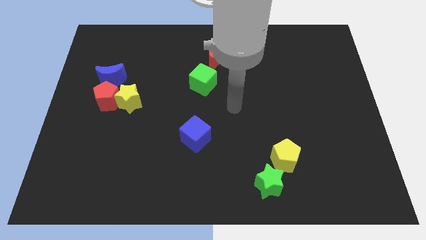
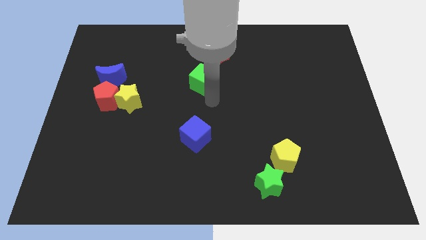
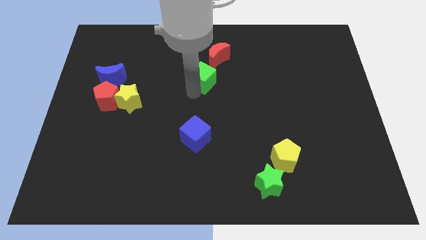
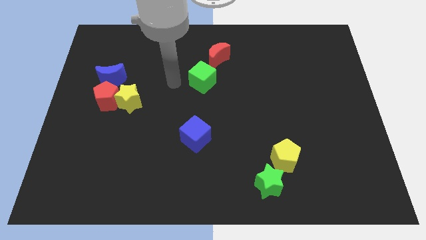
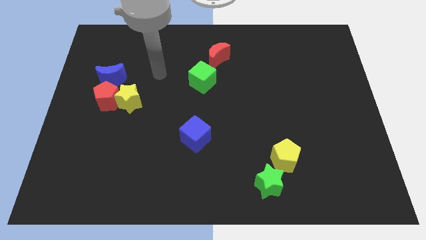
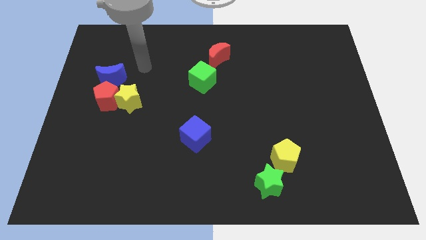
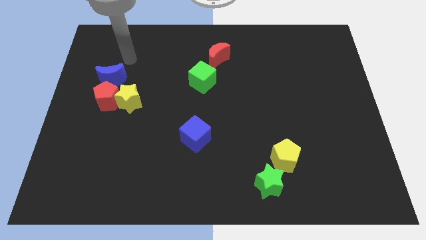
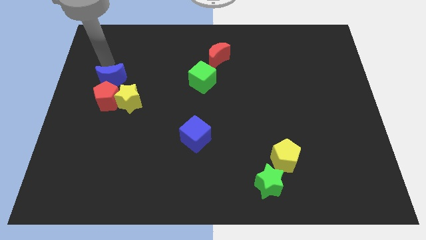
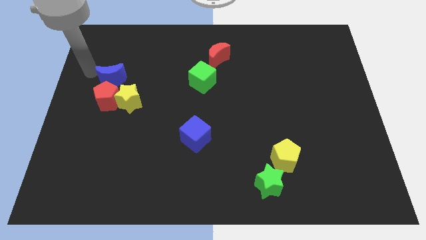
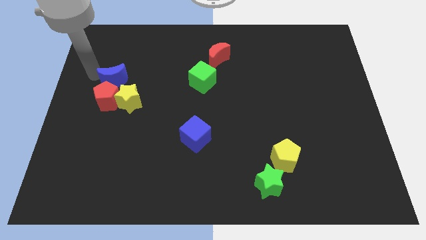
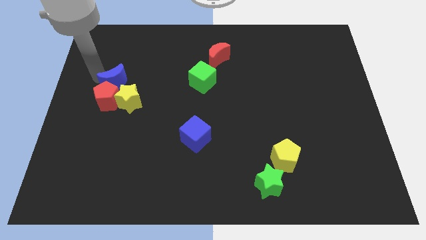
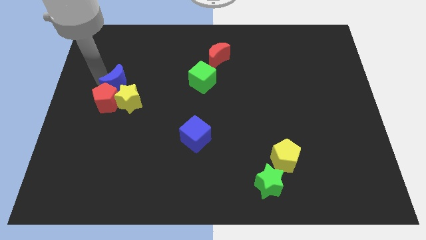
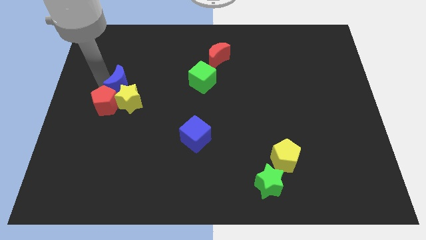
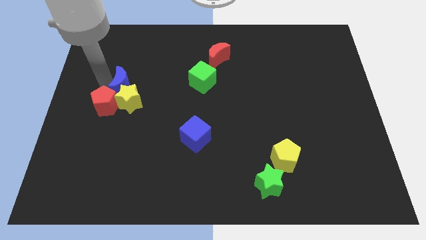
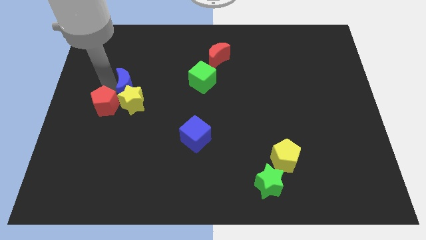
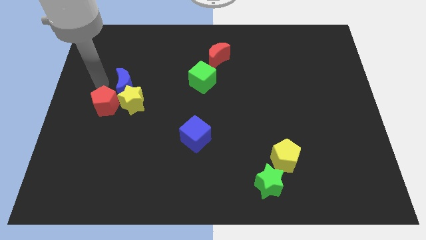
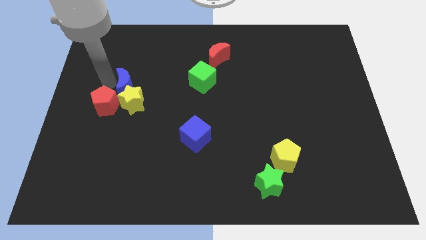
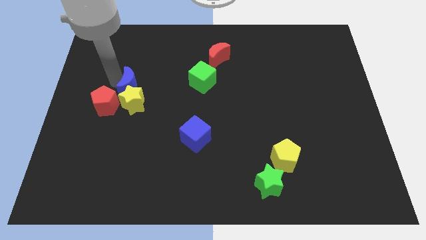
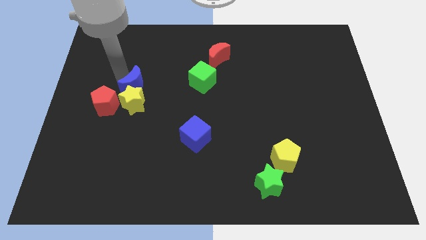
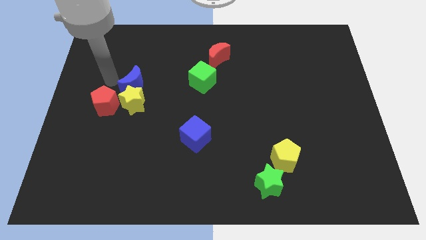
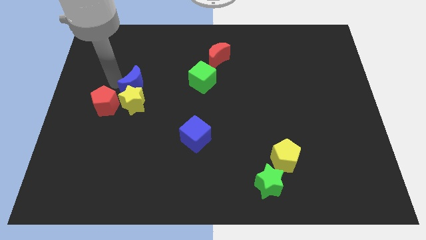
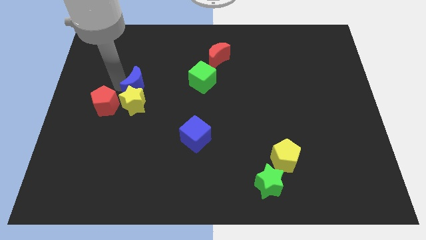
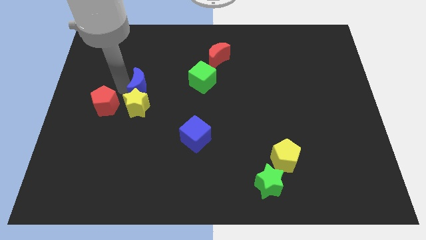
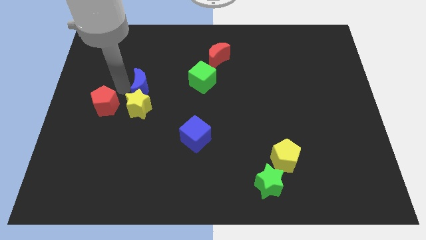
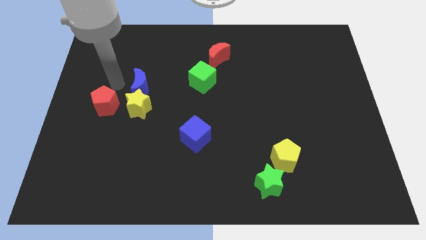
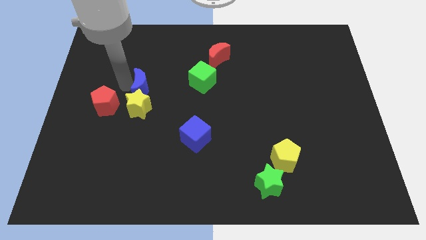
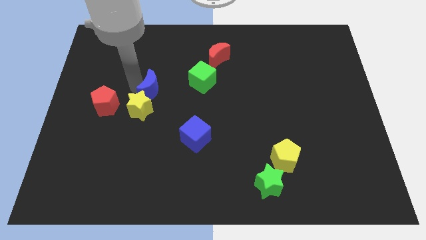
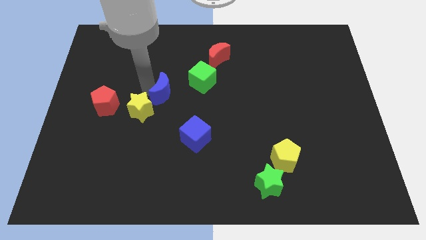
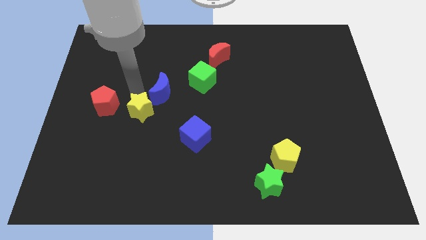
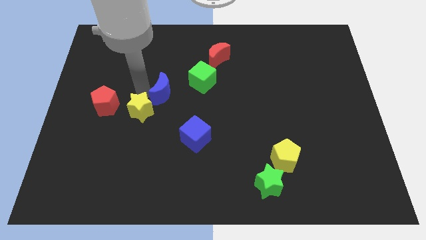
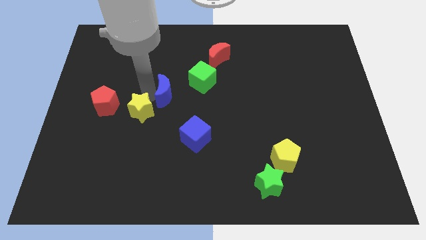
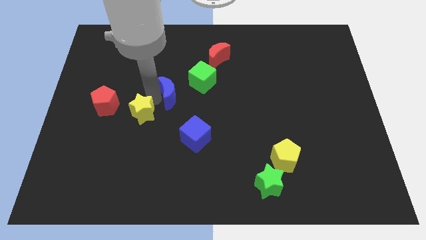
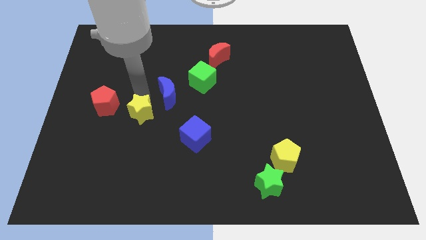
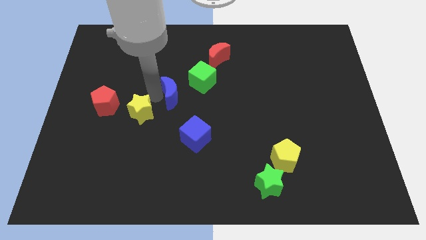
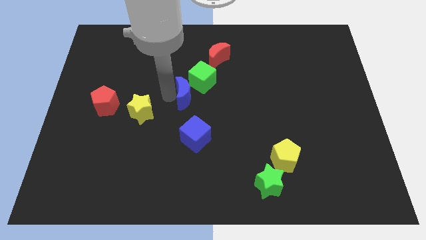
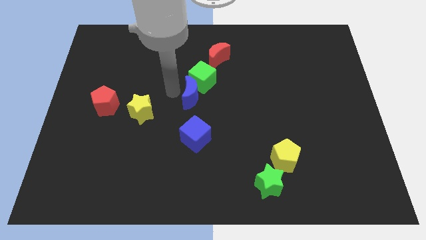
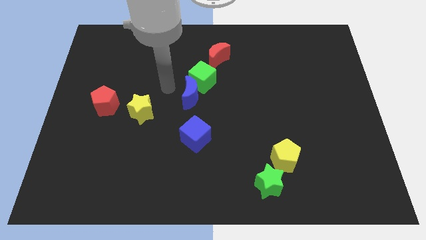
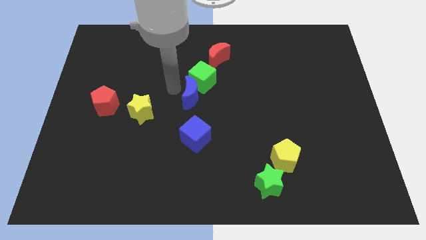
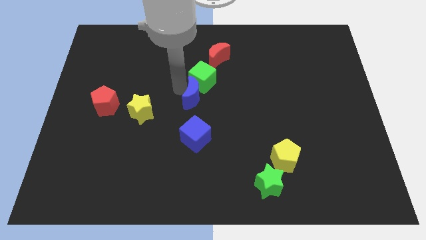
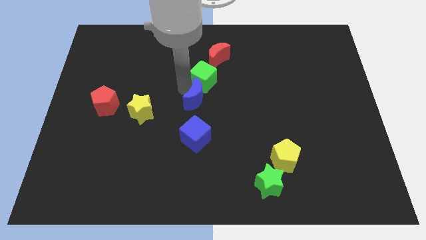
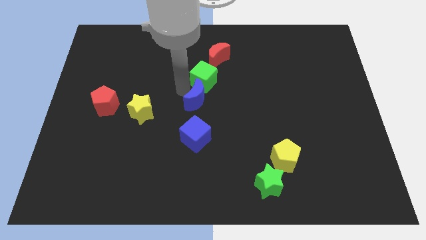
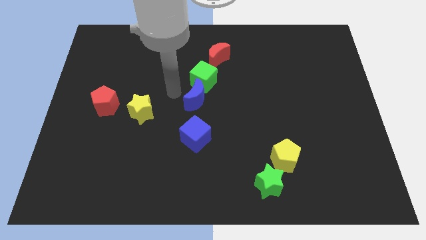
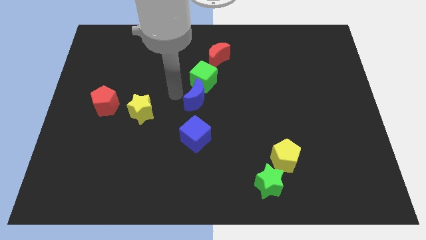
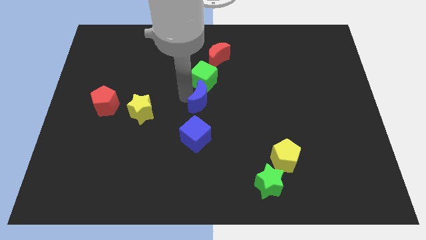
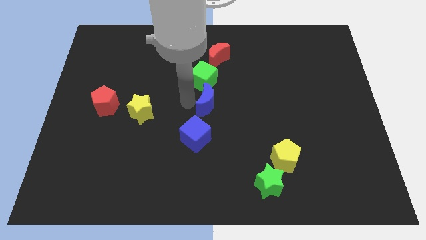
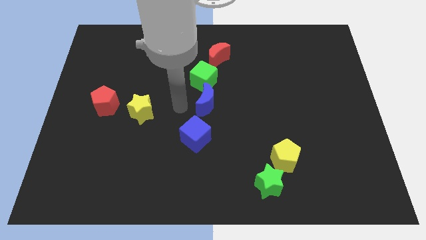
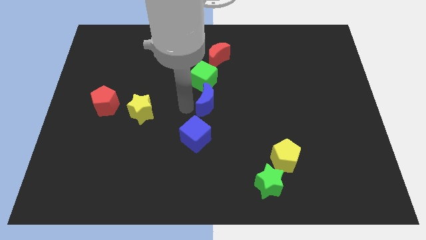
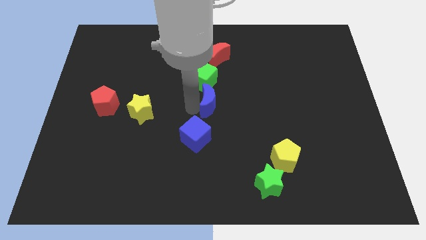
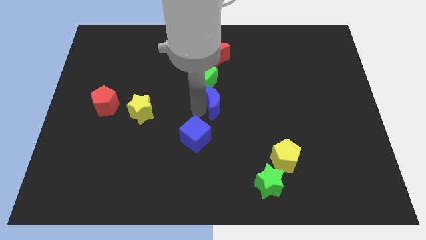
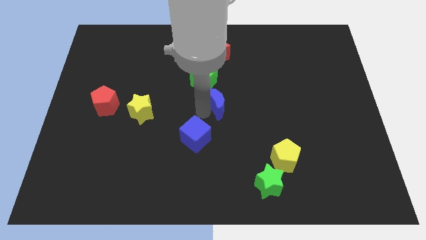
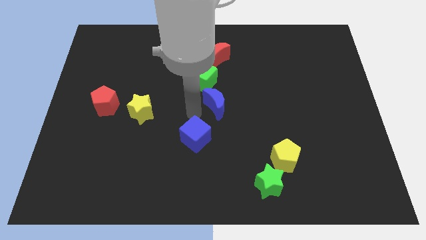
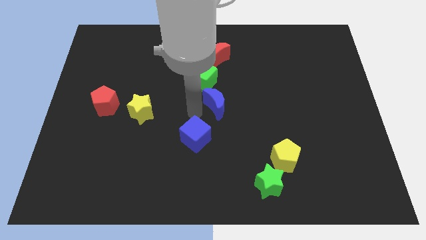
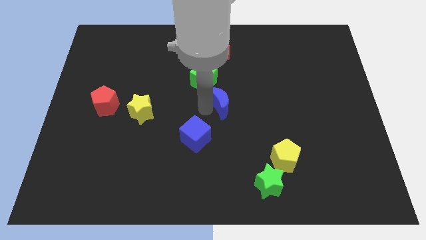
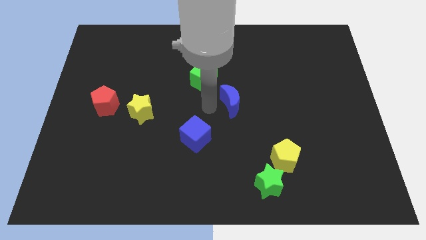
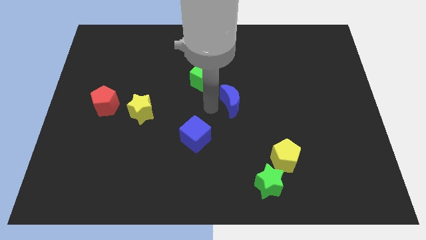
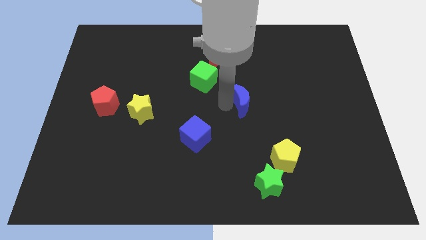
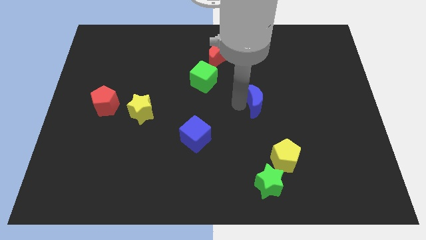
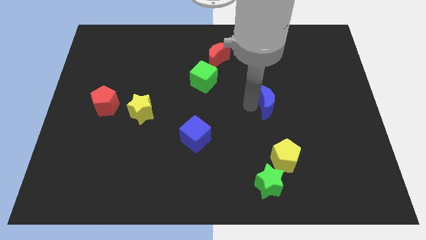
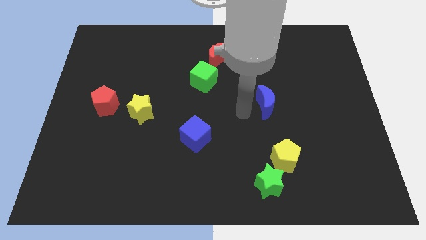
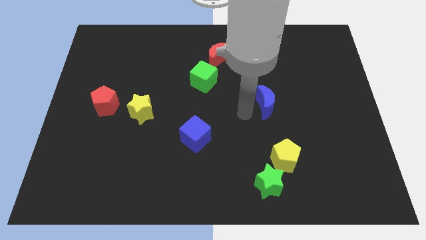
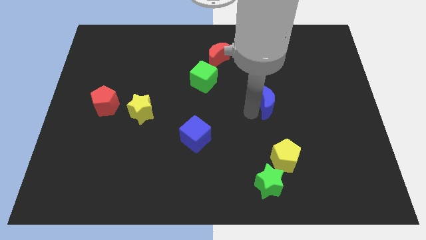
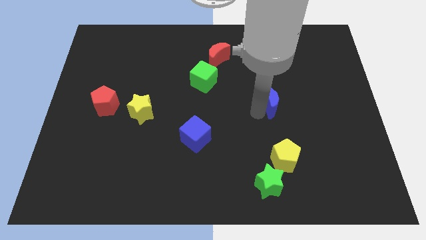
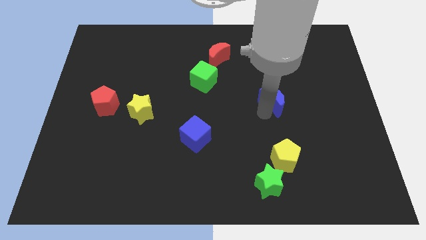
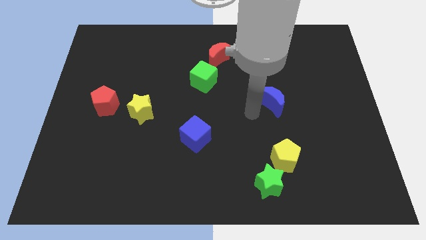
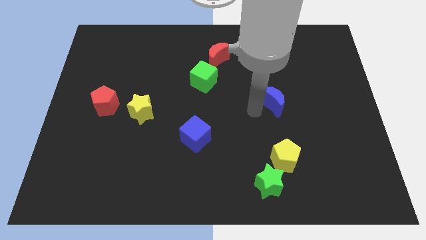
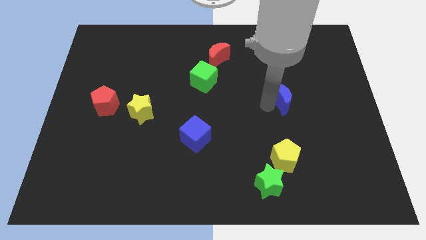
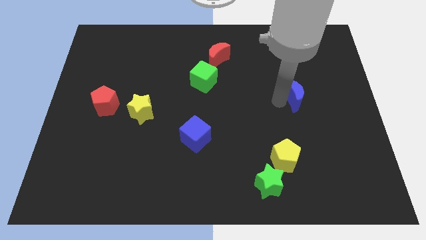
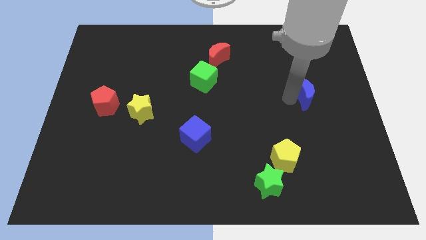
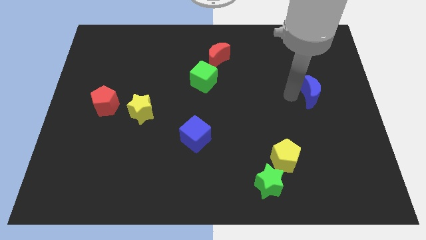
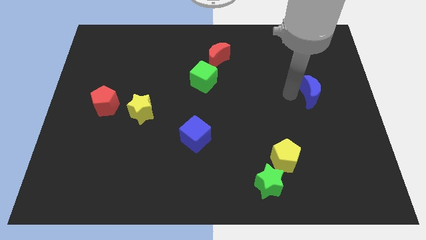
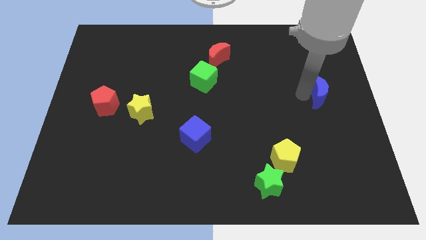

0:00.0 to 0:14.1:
put the blue moon to the center right
